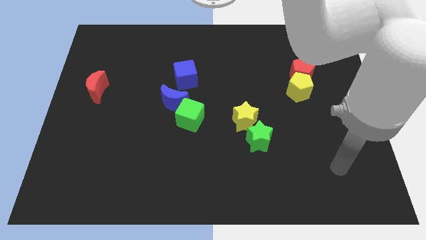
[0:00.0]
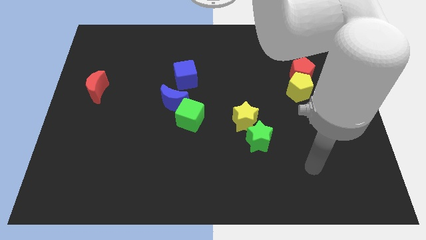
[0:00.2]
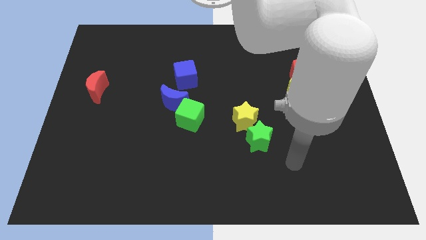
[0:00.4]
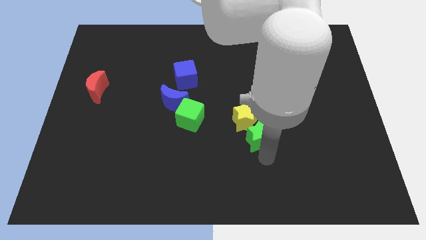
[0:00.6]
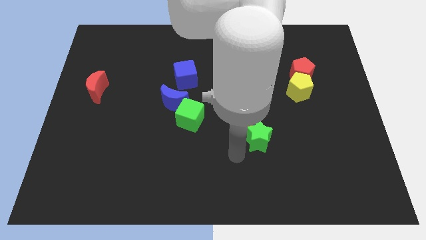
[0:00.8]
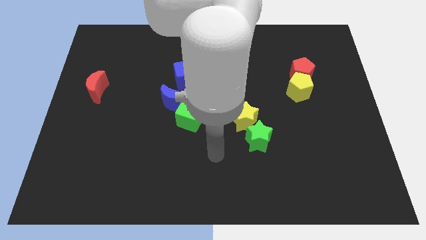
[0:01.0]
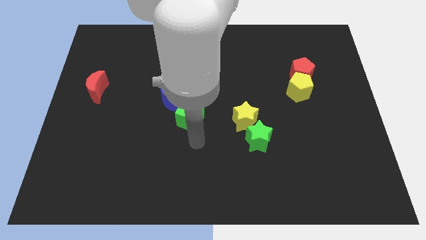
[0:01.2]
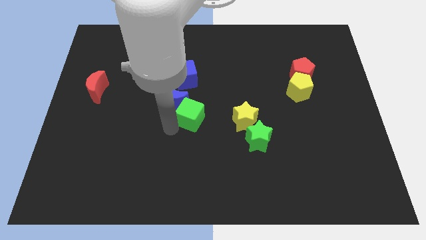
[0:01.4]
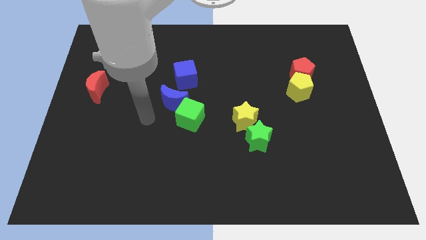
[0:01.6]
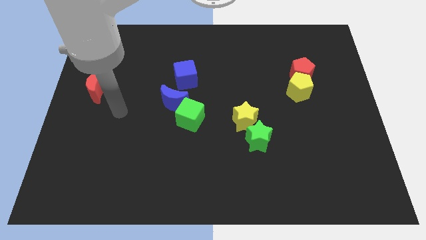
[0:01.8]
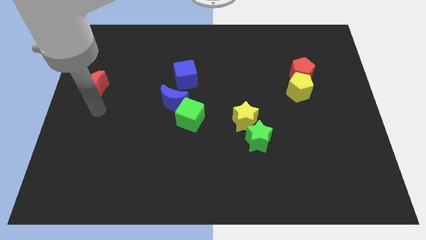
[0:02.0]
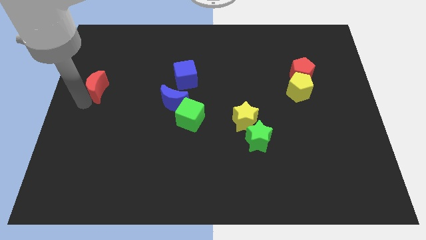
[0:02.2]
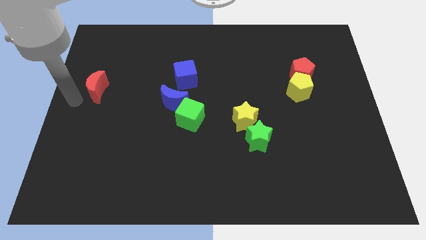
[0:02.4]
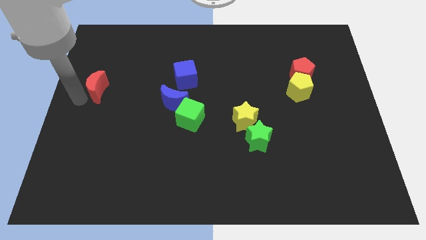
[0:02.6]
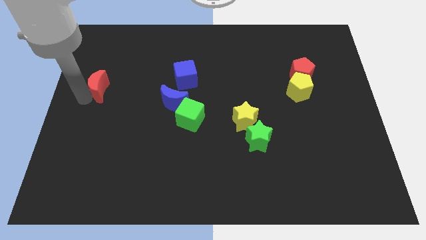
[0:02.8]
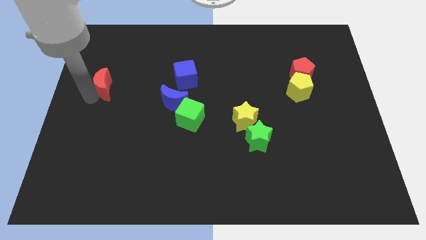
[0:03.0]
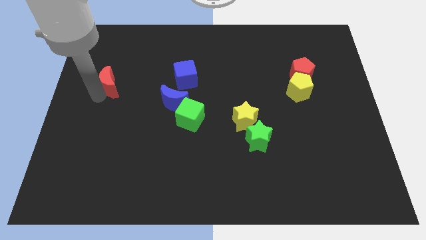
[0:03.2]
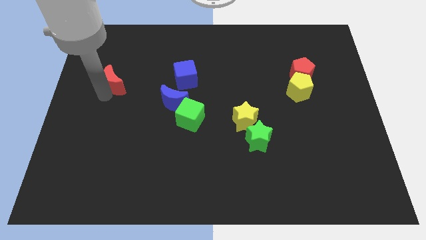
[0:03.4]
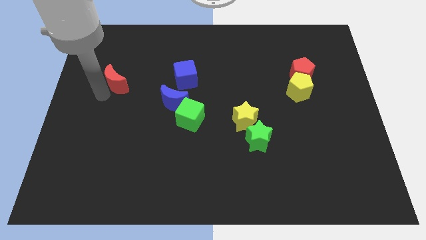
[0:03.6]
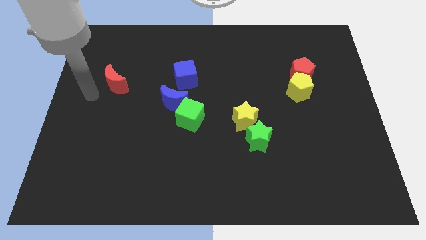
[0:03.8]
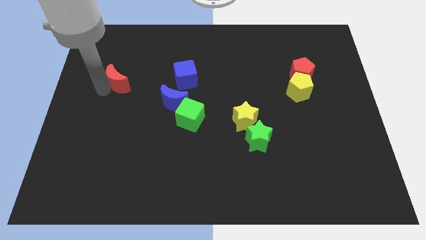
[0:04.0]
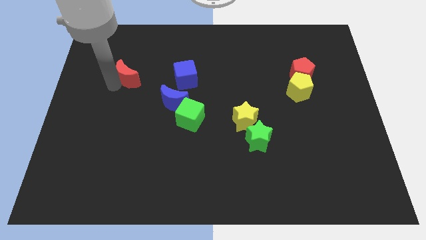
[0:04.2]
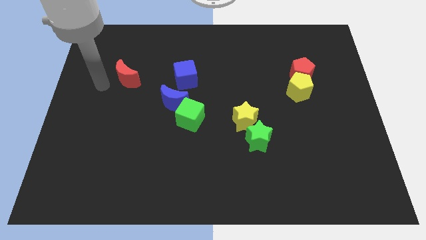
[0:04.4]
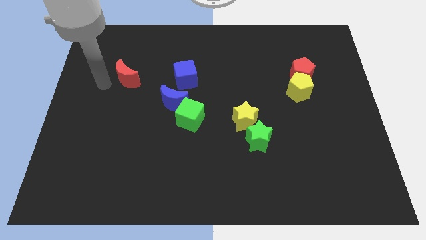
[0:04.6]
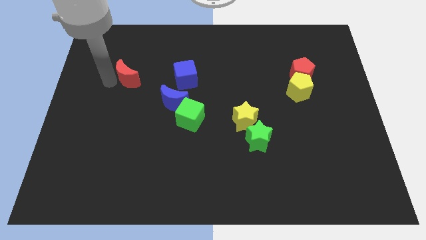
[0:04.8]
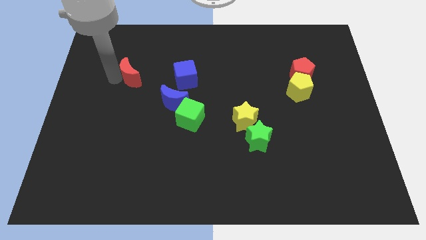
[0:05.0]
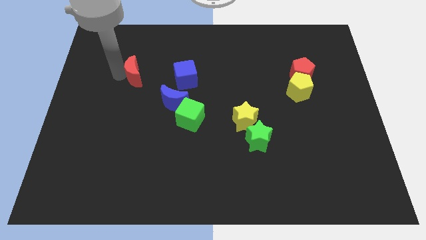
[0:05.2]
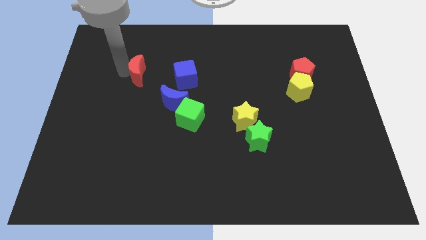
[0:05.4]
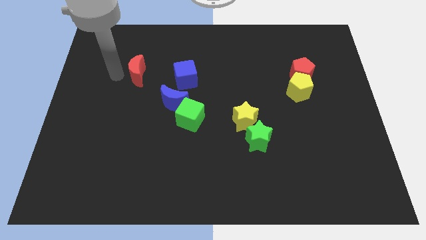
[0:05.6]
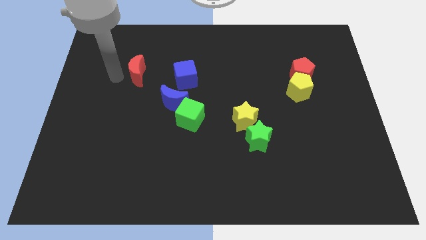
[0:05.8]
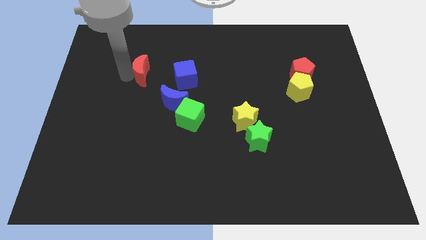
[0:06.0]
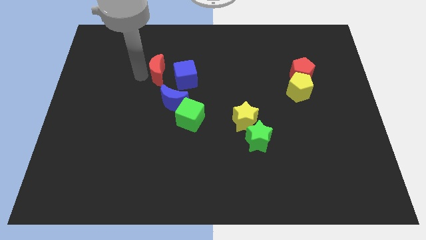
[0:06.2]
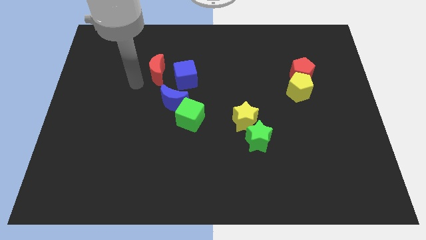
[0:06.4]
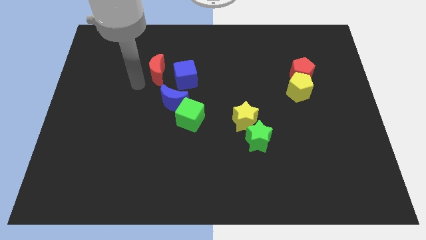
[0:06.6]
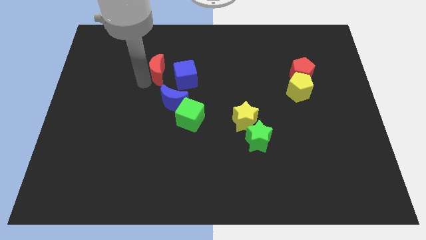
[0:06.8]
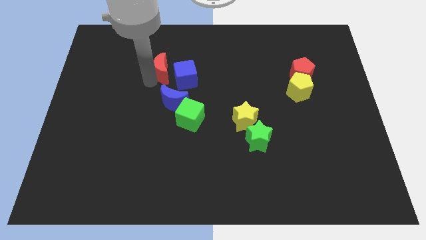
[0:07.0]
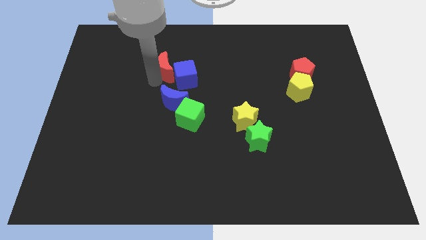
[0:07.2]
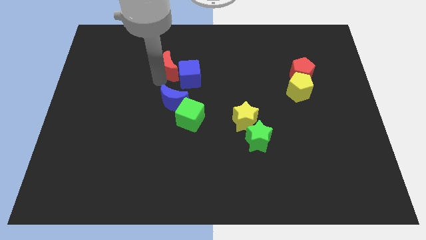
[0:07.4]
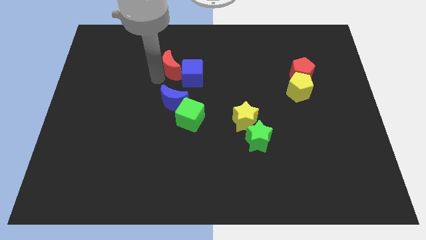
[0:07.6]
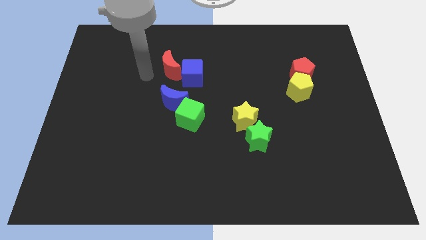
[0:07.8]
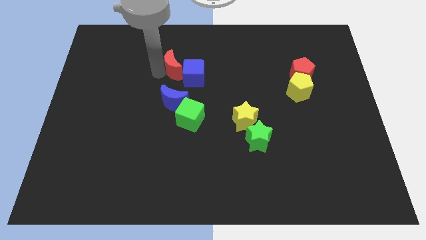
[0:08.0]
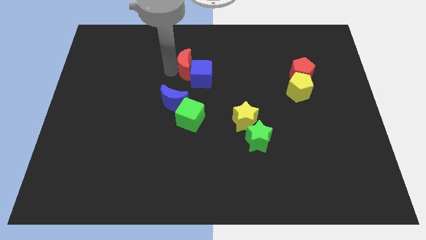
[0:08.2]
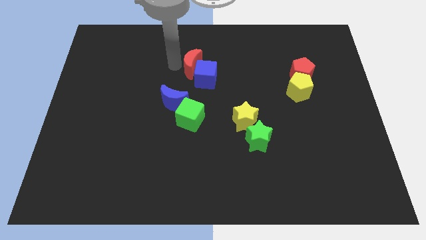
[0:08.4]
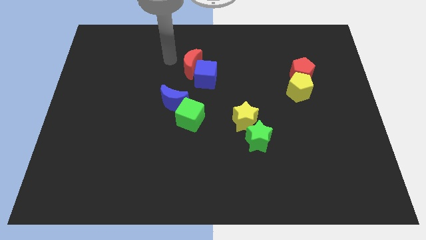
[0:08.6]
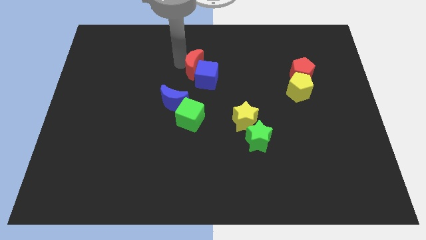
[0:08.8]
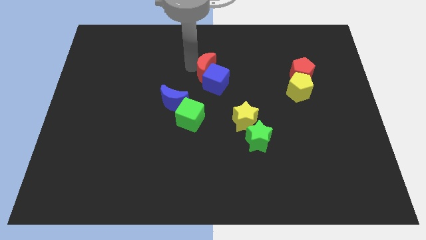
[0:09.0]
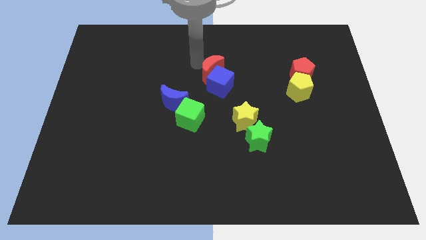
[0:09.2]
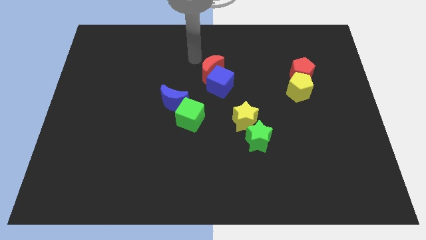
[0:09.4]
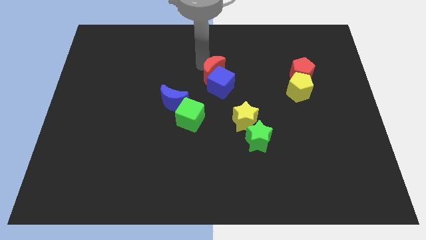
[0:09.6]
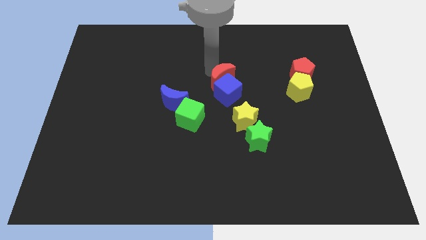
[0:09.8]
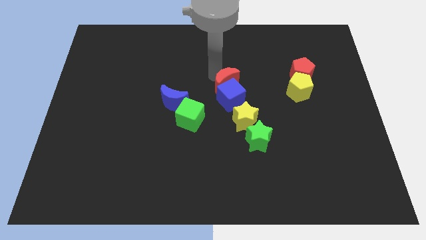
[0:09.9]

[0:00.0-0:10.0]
put the red moon above the yellow star

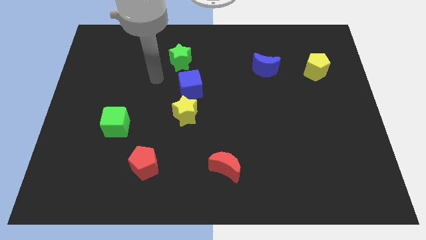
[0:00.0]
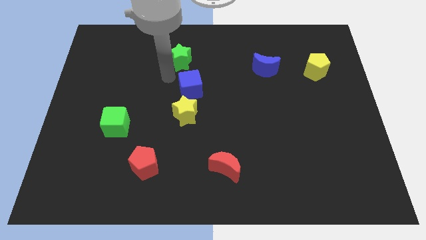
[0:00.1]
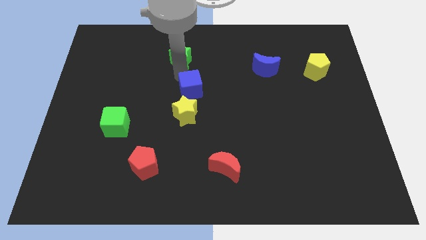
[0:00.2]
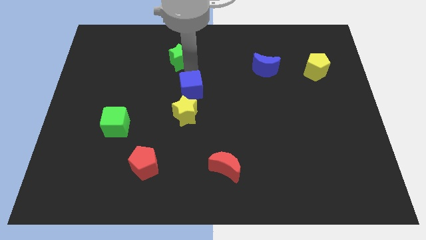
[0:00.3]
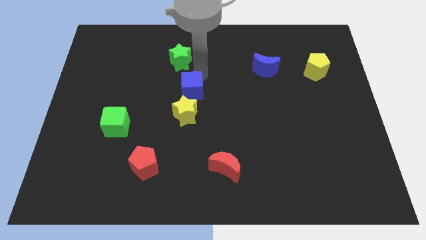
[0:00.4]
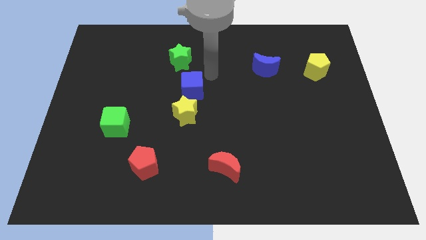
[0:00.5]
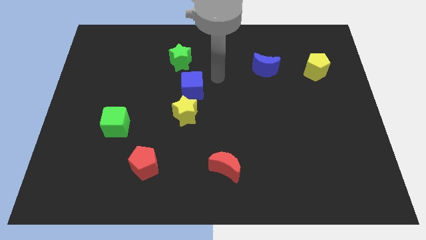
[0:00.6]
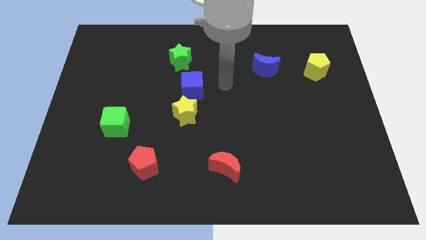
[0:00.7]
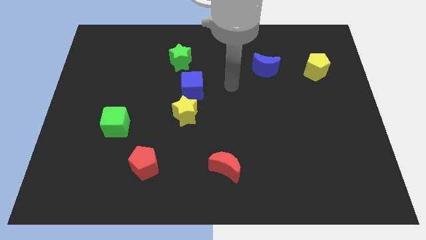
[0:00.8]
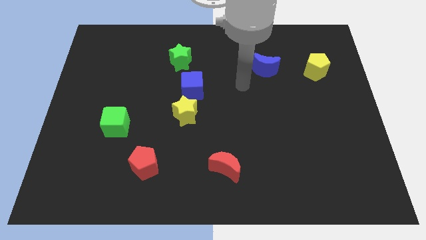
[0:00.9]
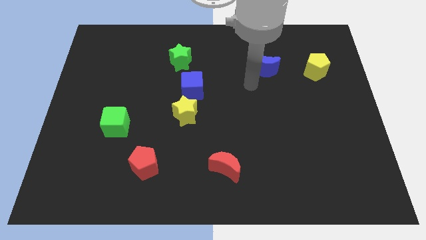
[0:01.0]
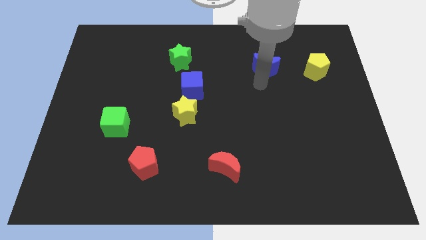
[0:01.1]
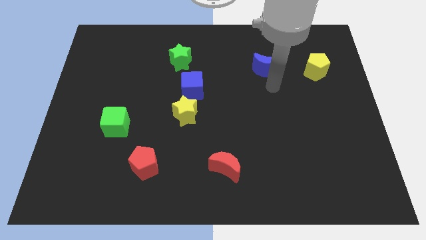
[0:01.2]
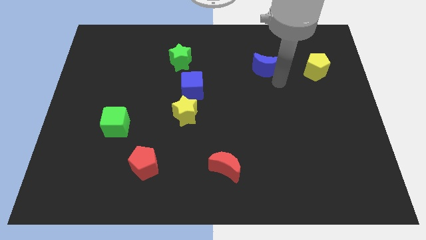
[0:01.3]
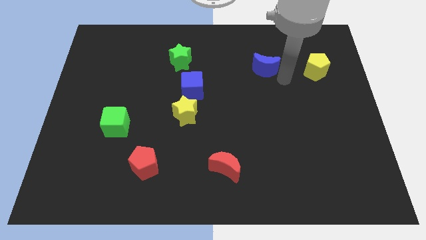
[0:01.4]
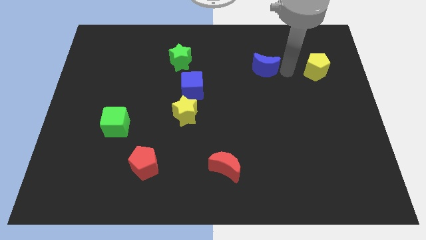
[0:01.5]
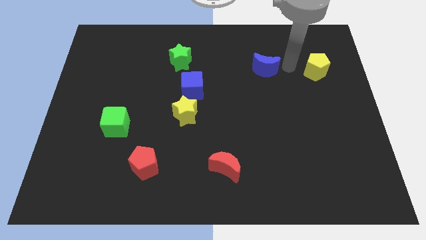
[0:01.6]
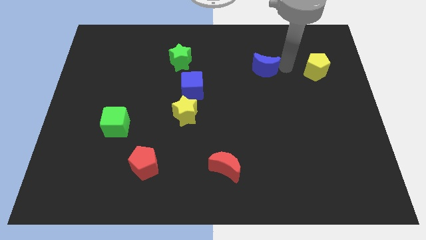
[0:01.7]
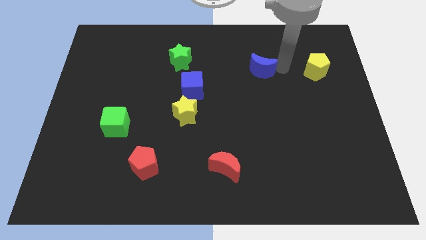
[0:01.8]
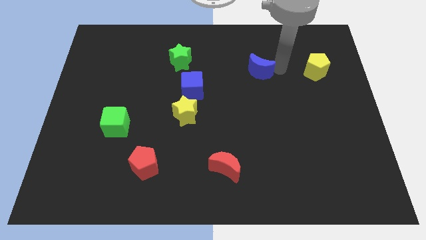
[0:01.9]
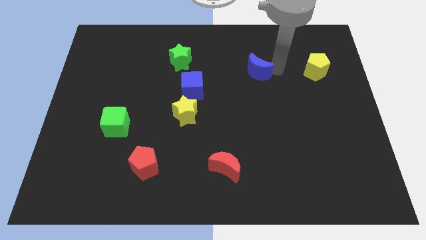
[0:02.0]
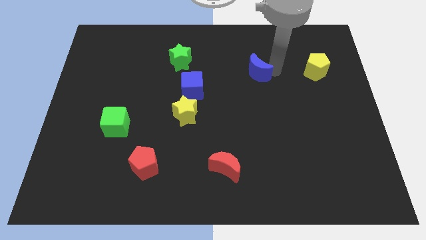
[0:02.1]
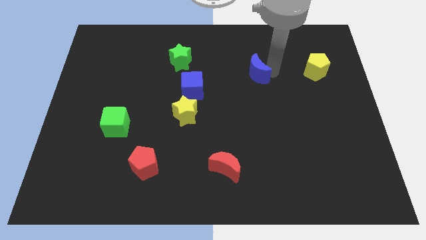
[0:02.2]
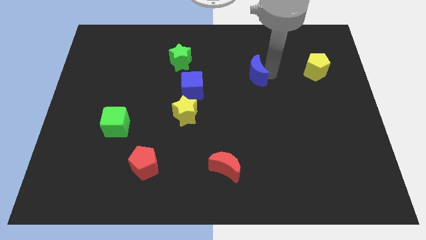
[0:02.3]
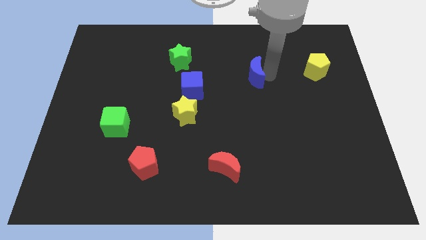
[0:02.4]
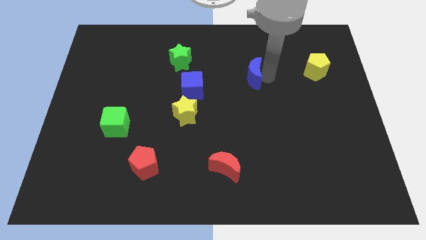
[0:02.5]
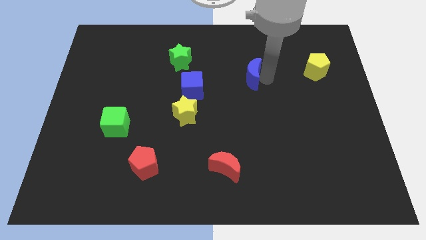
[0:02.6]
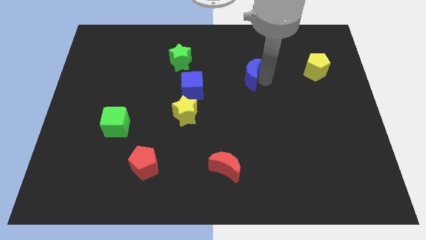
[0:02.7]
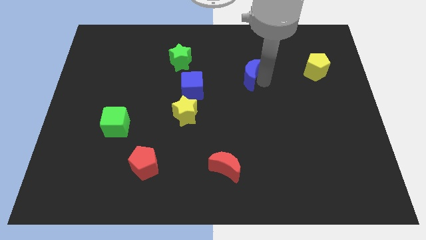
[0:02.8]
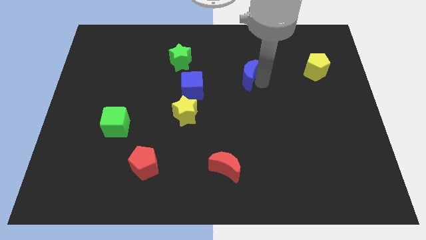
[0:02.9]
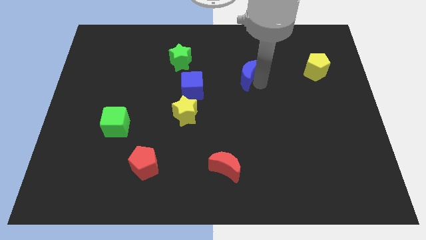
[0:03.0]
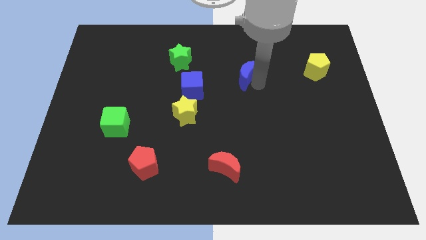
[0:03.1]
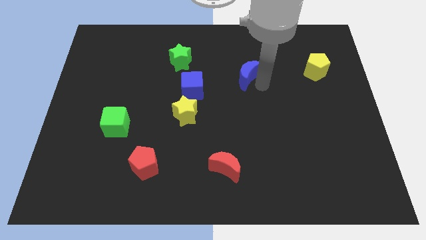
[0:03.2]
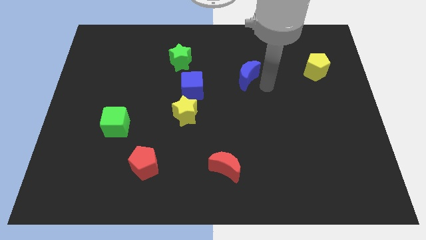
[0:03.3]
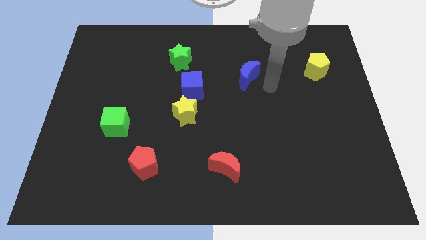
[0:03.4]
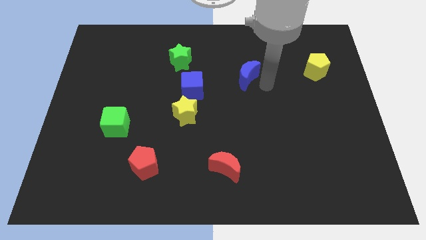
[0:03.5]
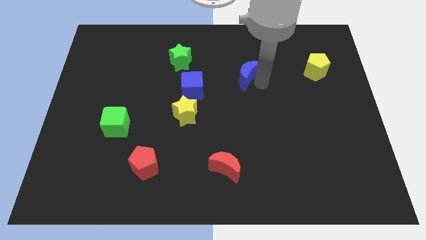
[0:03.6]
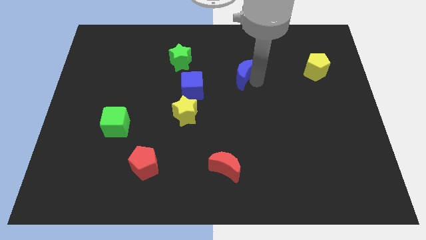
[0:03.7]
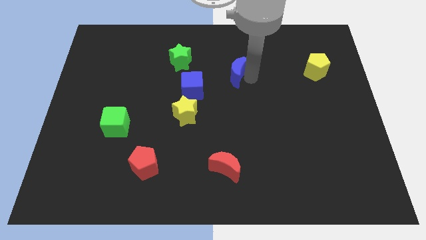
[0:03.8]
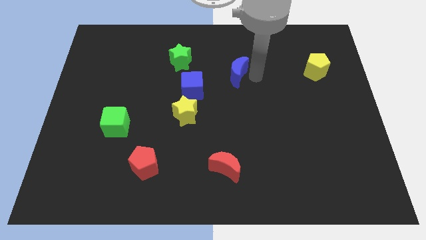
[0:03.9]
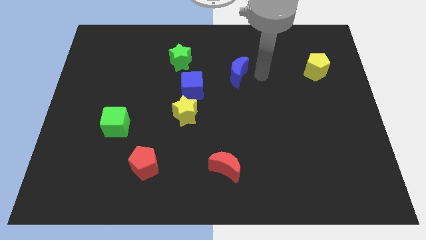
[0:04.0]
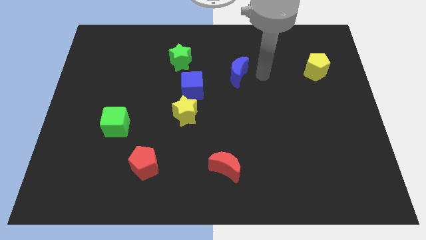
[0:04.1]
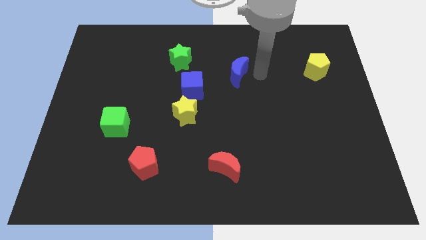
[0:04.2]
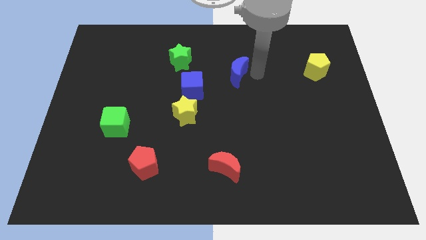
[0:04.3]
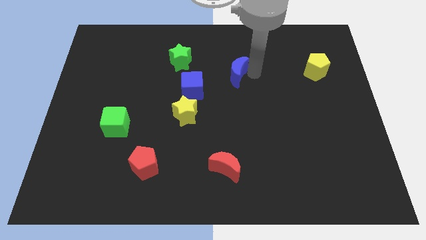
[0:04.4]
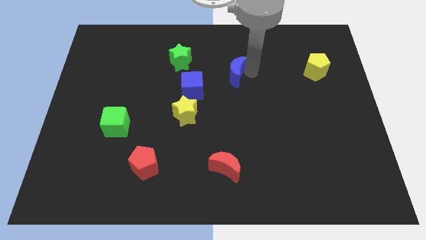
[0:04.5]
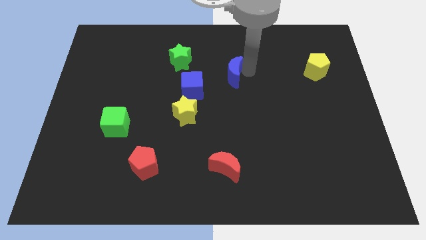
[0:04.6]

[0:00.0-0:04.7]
push the blue moon diagonally up and to the right of the blue cube
